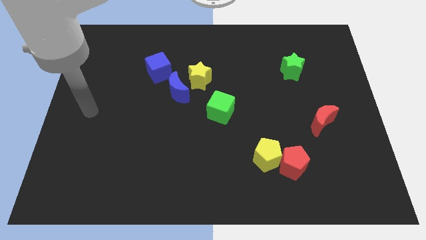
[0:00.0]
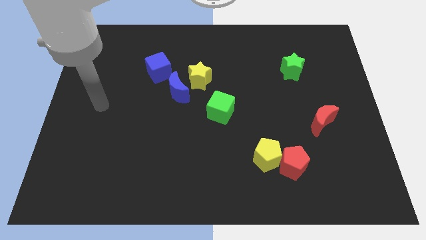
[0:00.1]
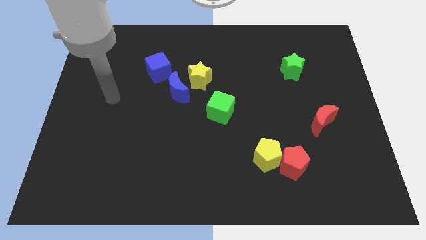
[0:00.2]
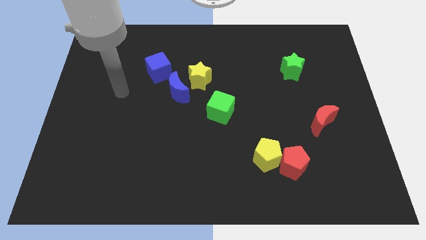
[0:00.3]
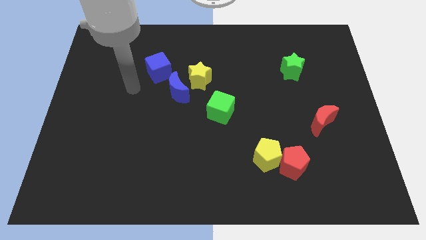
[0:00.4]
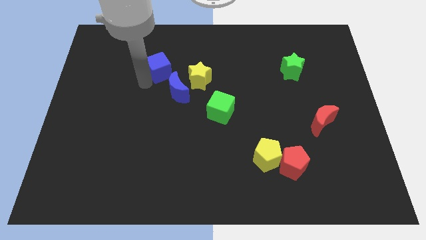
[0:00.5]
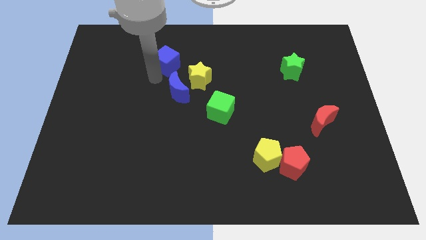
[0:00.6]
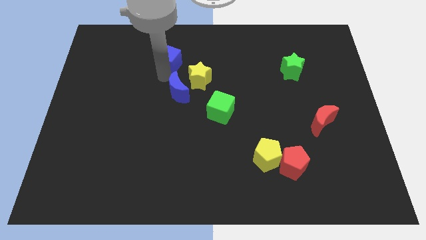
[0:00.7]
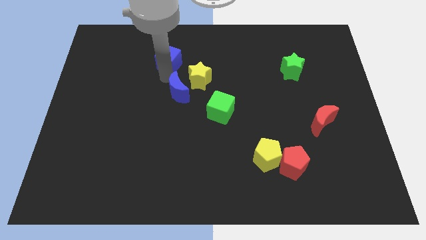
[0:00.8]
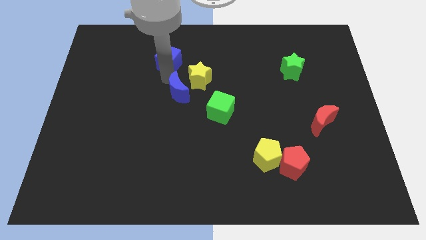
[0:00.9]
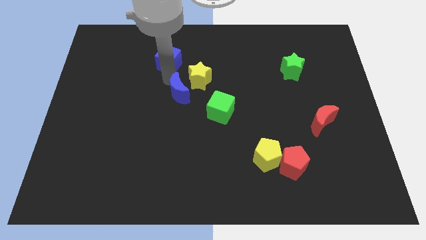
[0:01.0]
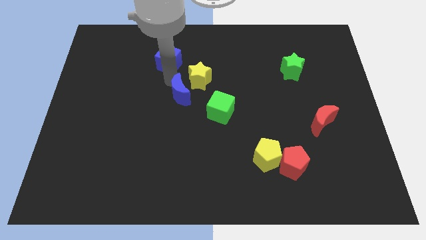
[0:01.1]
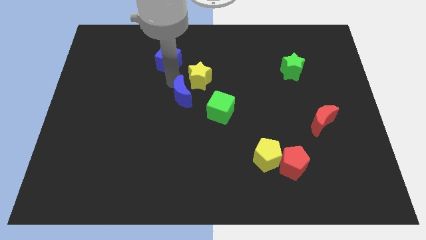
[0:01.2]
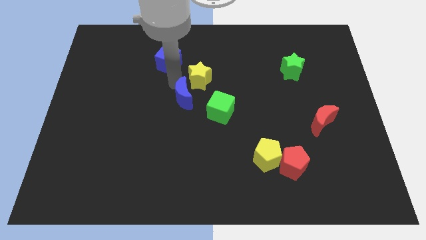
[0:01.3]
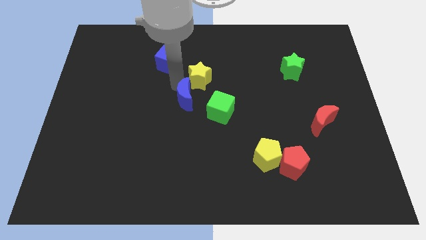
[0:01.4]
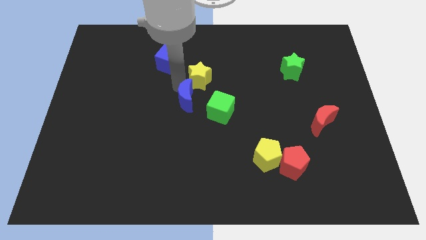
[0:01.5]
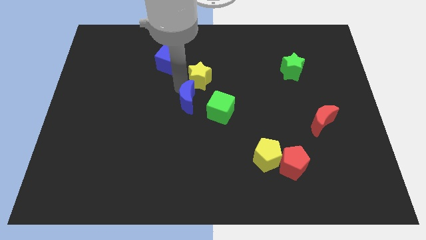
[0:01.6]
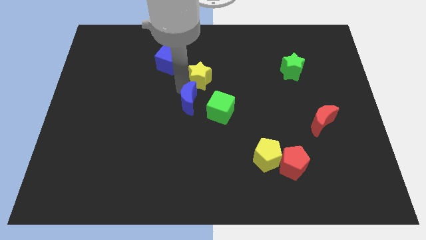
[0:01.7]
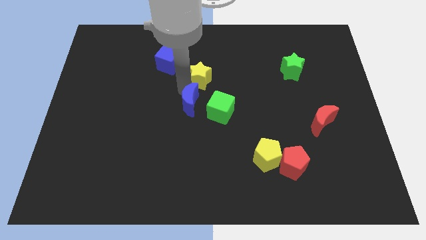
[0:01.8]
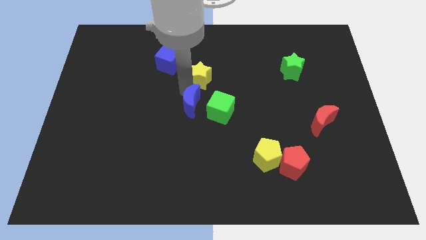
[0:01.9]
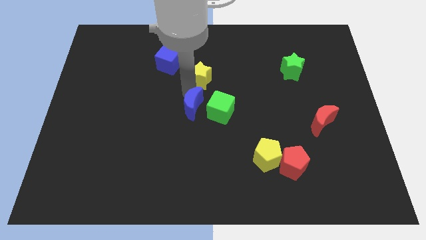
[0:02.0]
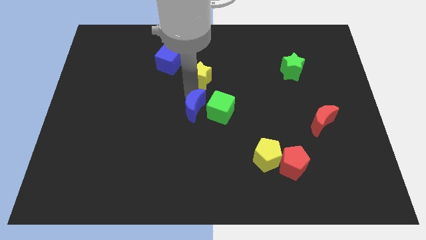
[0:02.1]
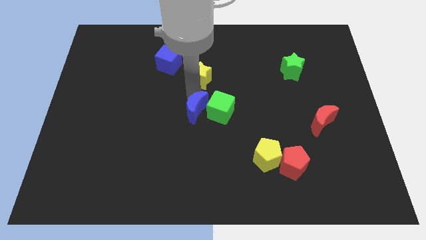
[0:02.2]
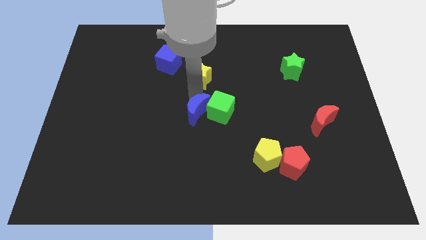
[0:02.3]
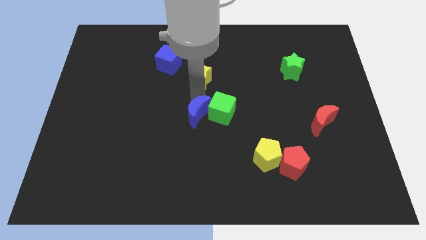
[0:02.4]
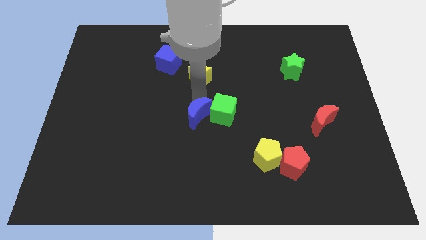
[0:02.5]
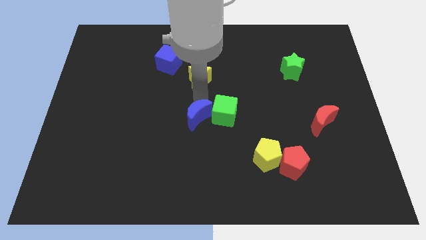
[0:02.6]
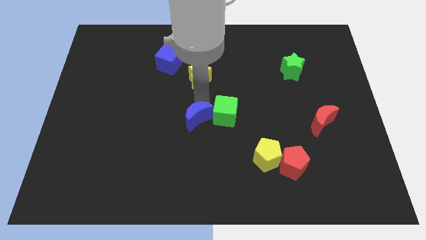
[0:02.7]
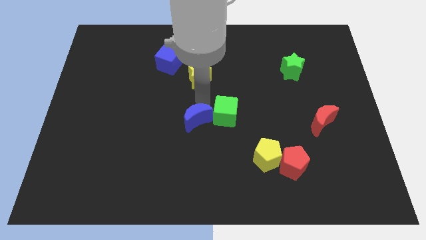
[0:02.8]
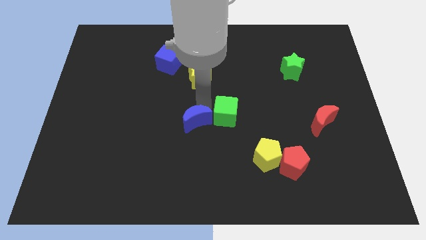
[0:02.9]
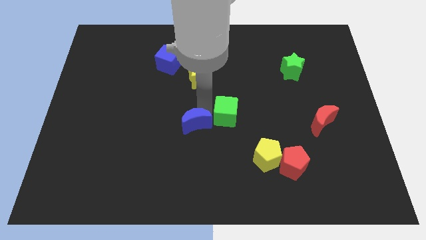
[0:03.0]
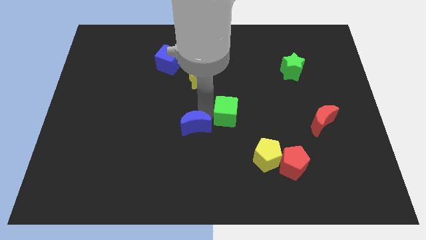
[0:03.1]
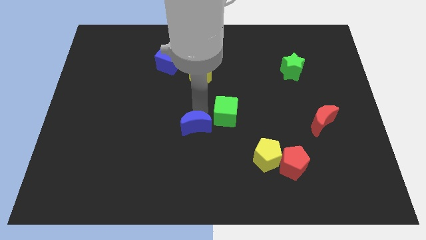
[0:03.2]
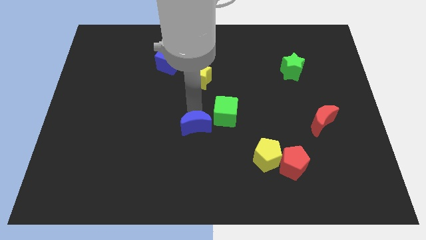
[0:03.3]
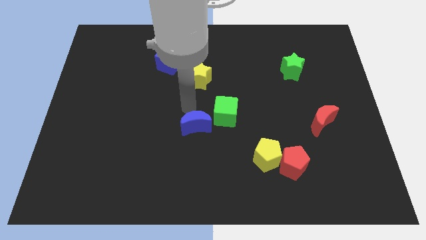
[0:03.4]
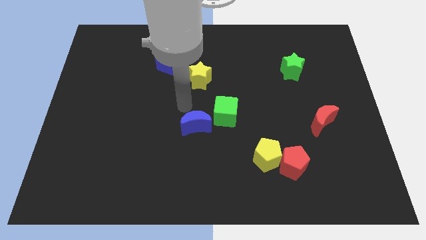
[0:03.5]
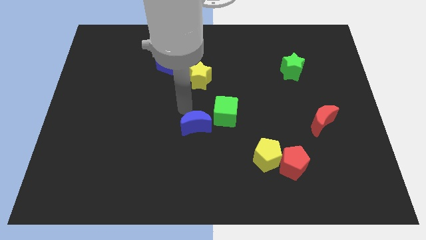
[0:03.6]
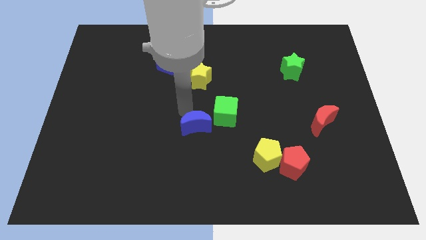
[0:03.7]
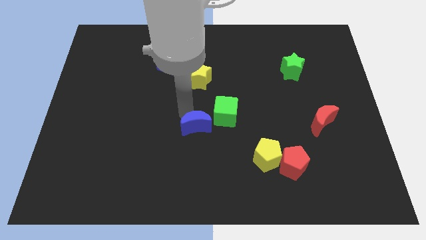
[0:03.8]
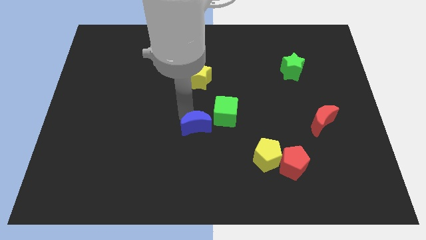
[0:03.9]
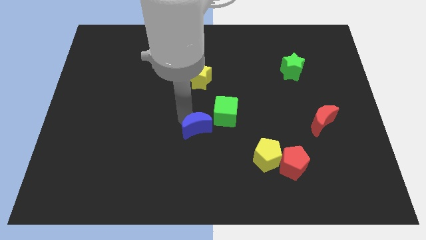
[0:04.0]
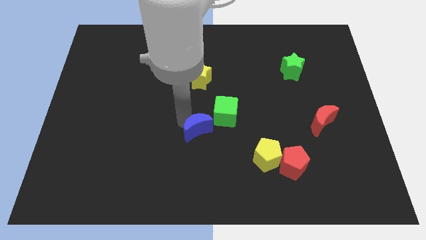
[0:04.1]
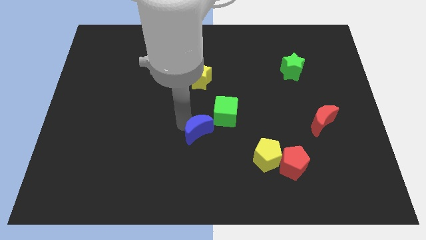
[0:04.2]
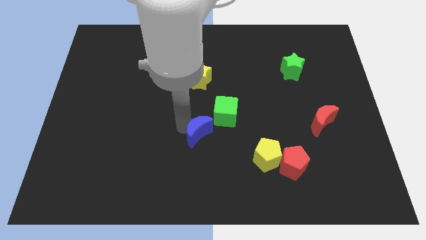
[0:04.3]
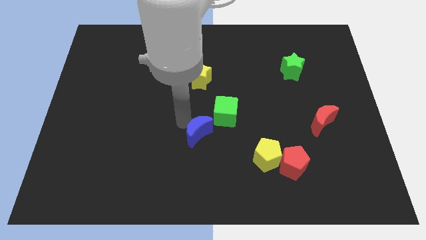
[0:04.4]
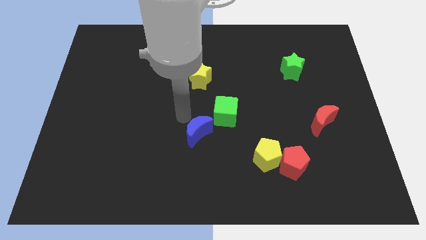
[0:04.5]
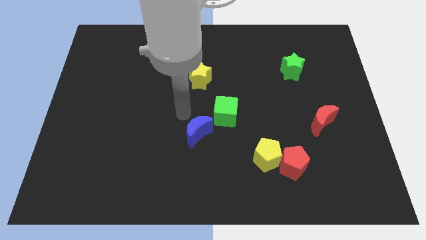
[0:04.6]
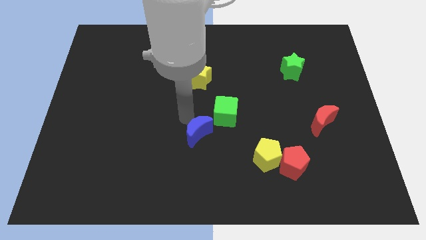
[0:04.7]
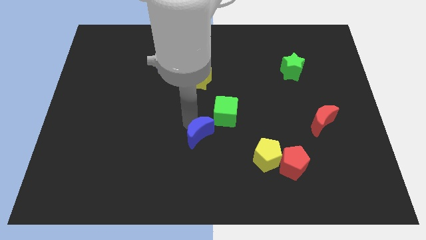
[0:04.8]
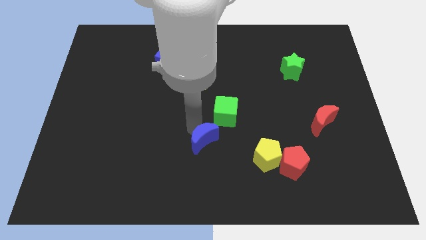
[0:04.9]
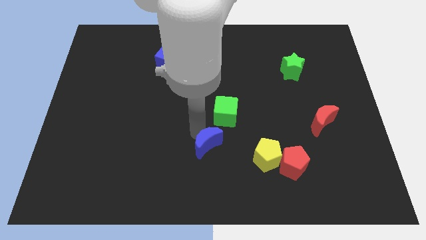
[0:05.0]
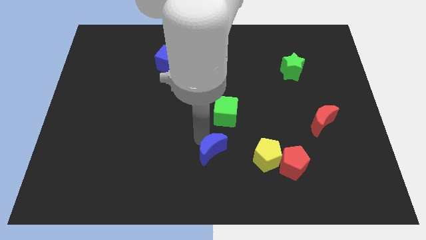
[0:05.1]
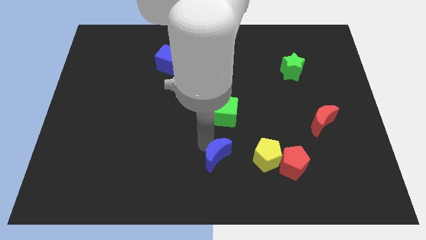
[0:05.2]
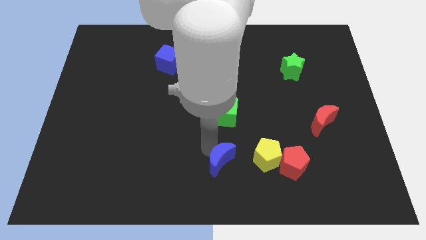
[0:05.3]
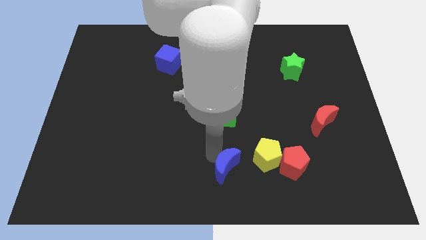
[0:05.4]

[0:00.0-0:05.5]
put the blue moon to the bottom left side of the yellow pentagon

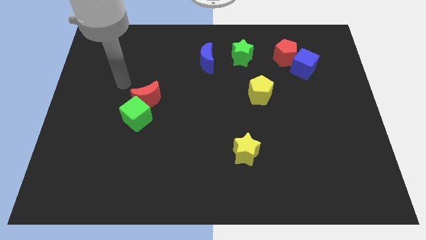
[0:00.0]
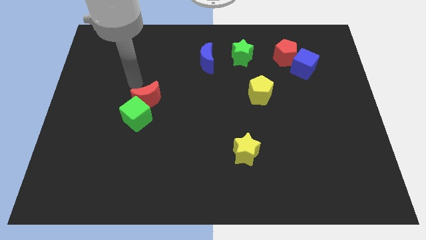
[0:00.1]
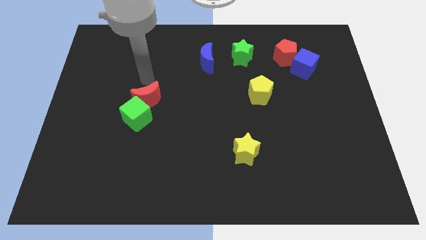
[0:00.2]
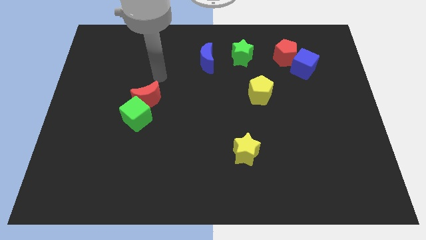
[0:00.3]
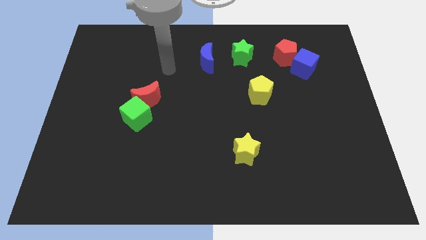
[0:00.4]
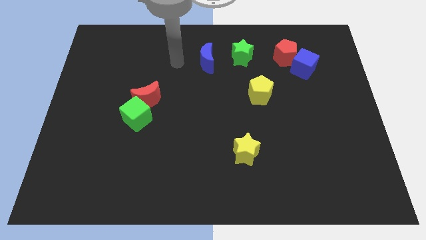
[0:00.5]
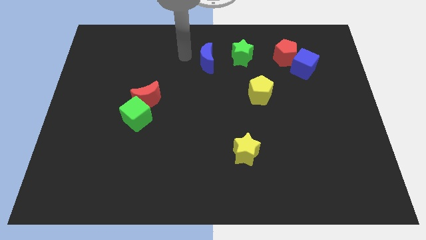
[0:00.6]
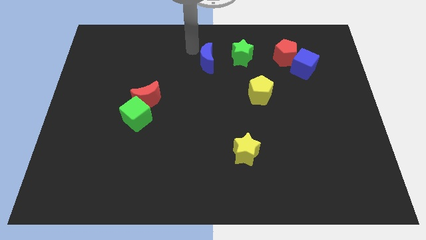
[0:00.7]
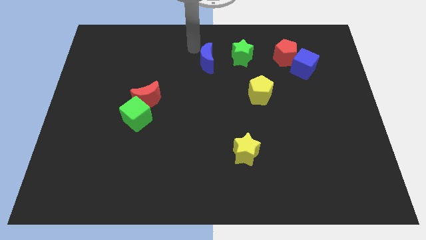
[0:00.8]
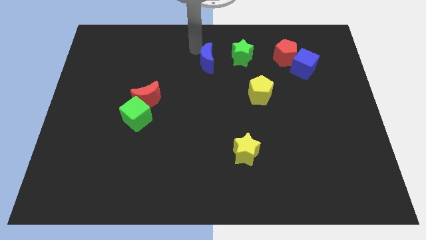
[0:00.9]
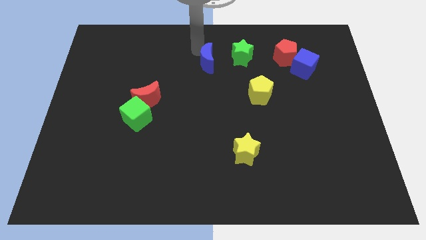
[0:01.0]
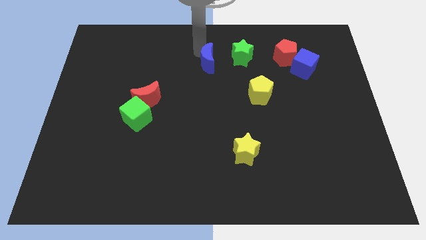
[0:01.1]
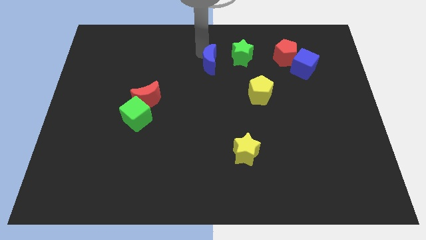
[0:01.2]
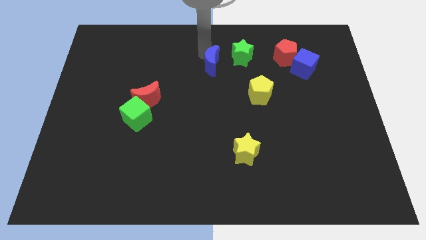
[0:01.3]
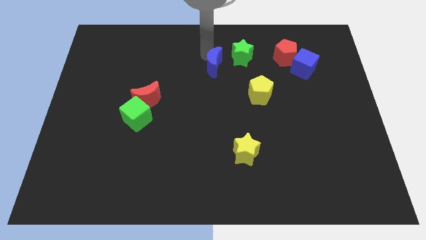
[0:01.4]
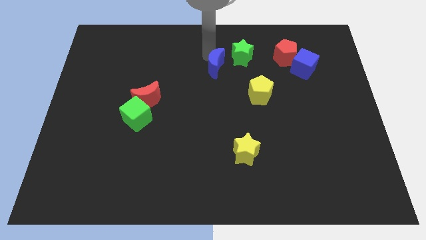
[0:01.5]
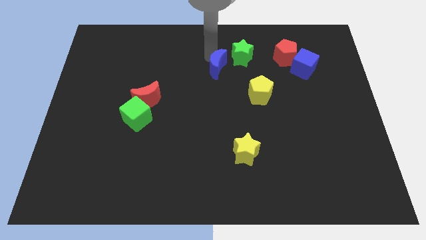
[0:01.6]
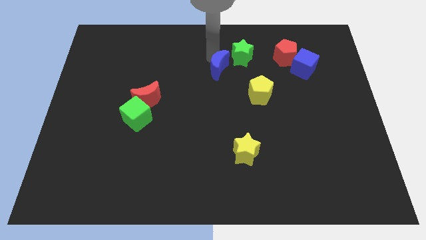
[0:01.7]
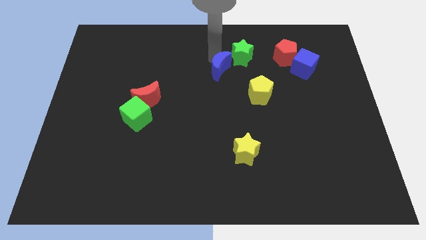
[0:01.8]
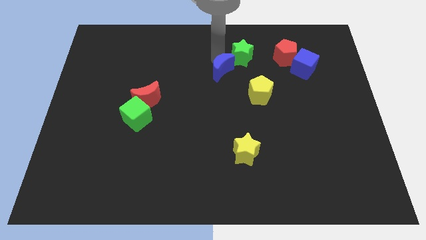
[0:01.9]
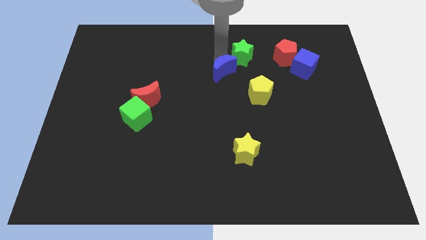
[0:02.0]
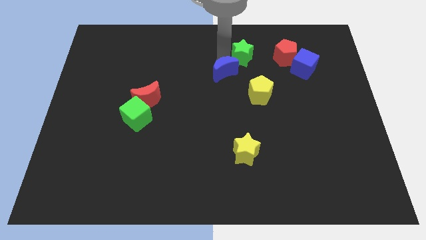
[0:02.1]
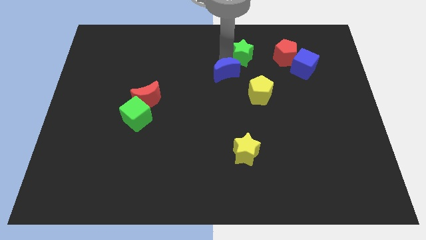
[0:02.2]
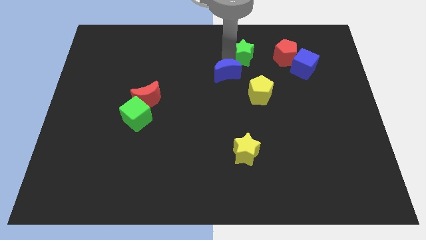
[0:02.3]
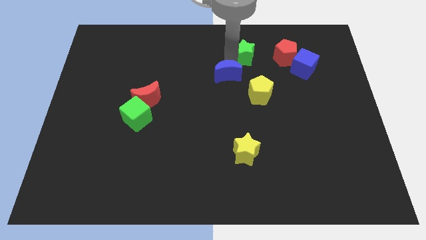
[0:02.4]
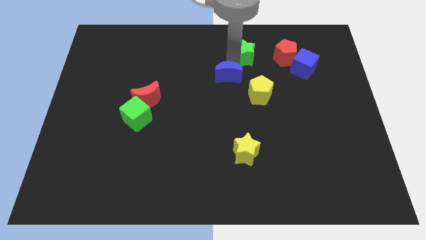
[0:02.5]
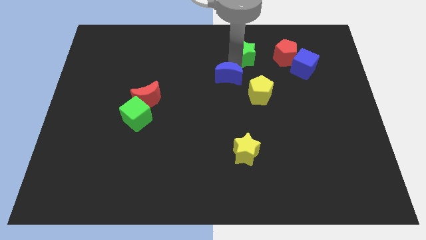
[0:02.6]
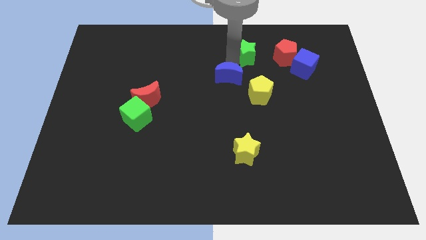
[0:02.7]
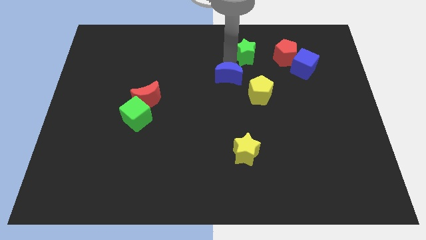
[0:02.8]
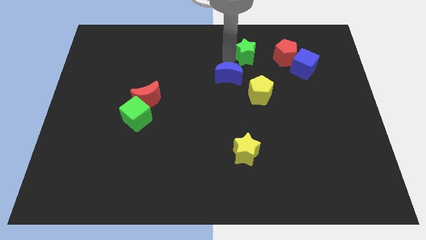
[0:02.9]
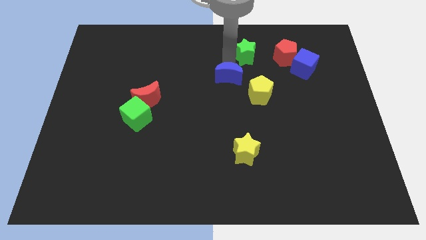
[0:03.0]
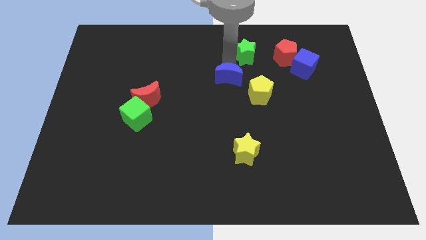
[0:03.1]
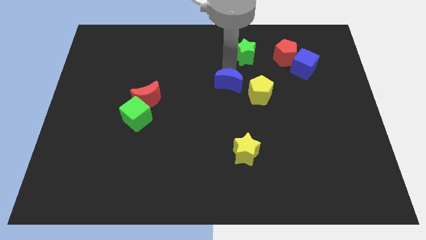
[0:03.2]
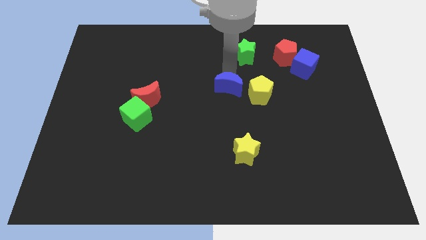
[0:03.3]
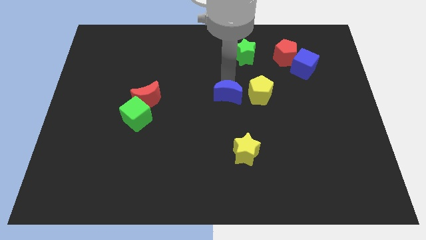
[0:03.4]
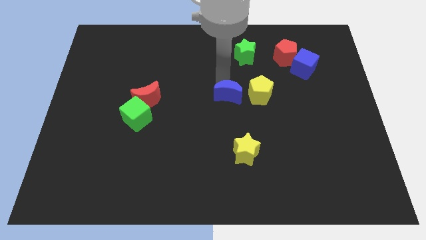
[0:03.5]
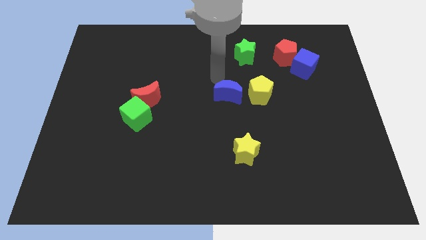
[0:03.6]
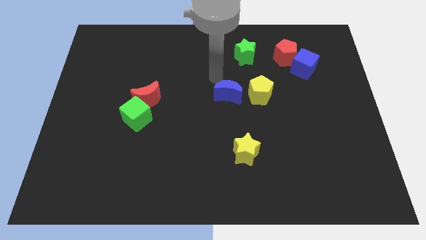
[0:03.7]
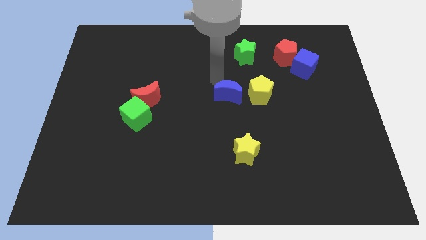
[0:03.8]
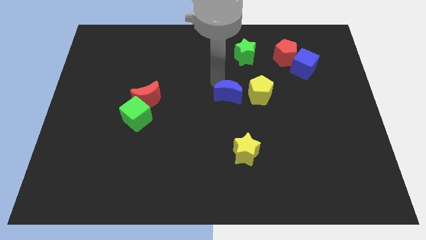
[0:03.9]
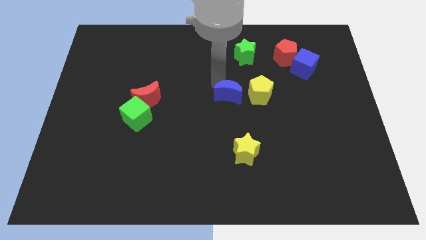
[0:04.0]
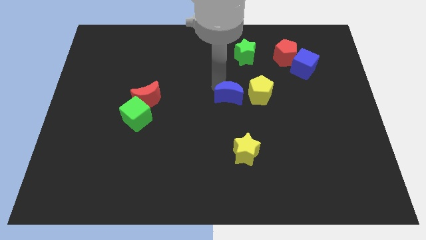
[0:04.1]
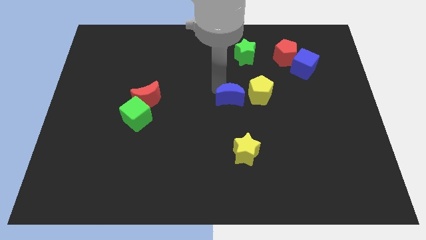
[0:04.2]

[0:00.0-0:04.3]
put the blue moon above the yellow star
